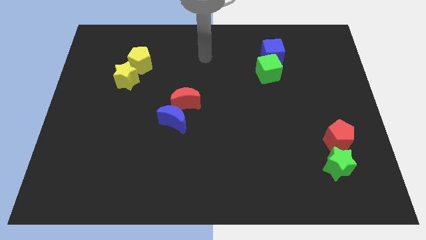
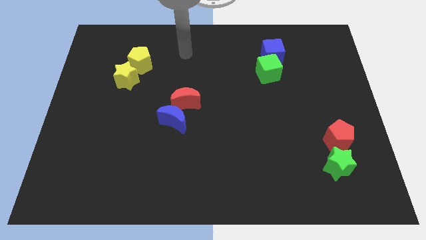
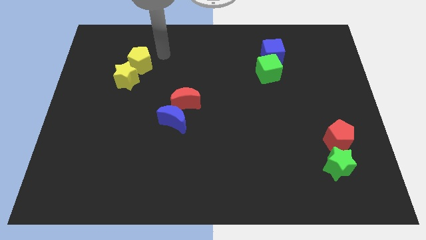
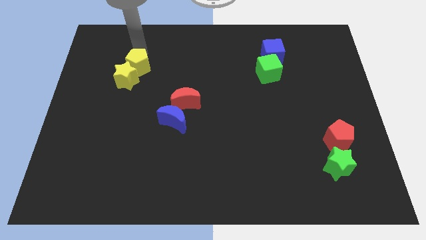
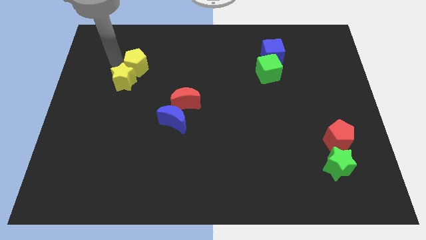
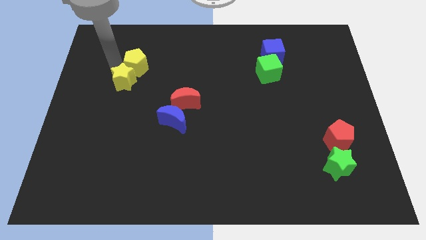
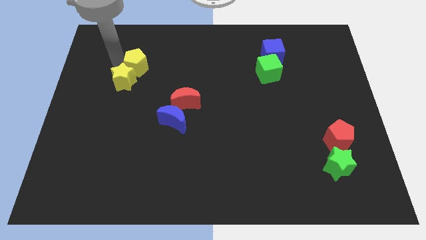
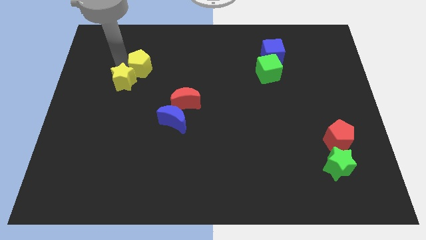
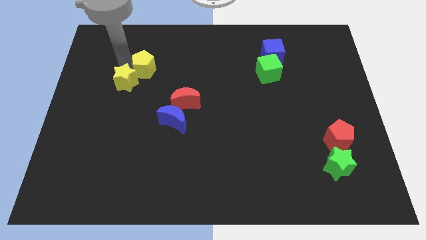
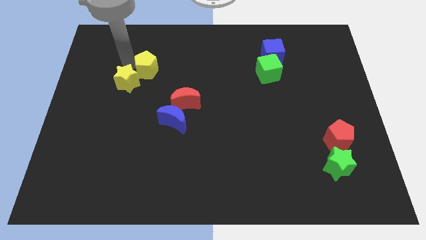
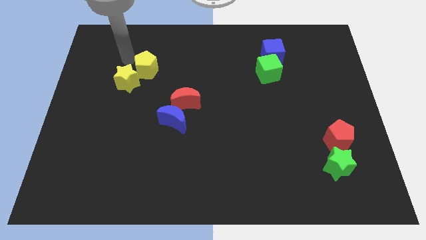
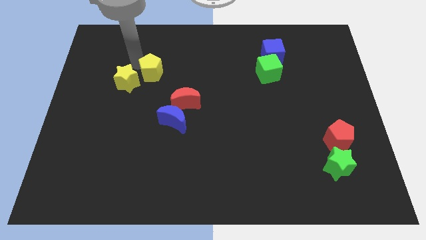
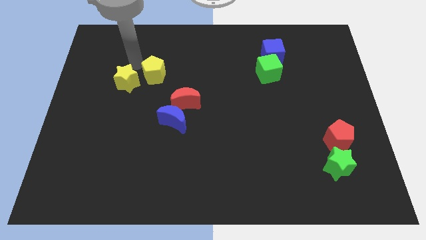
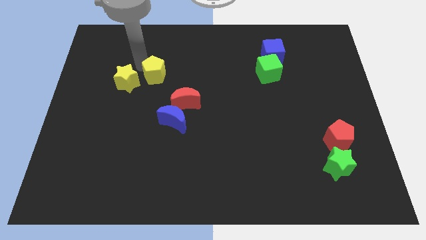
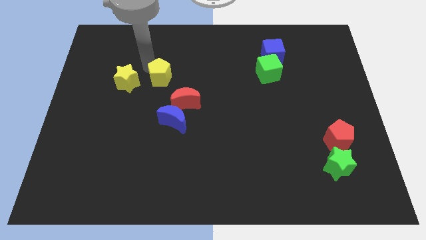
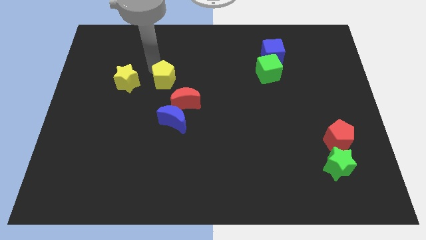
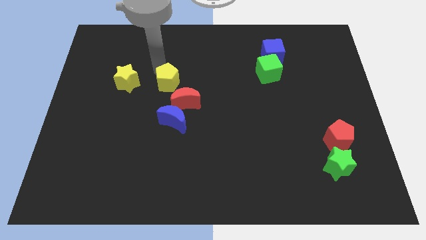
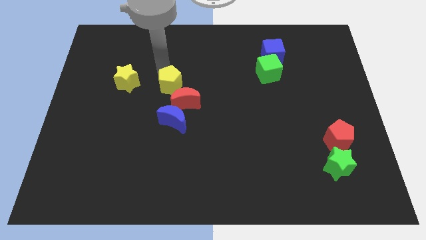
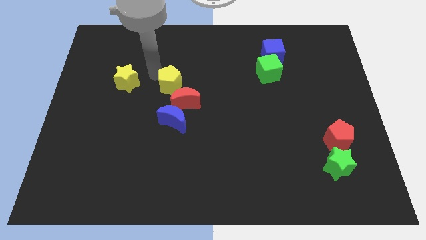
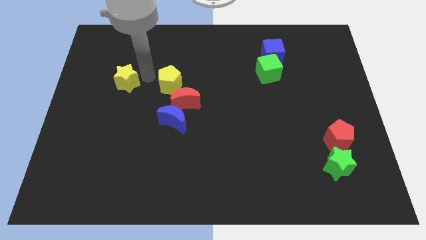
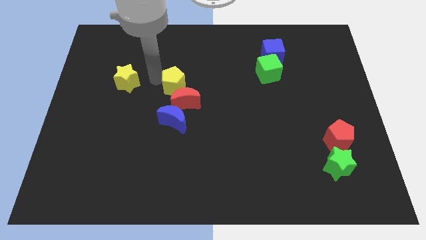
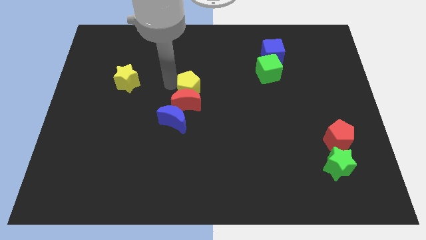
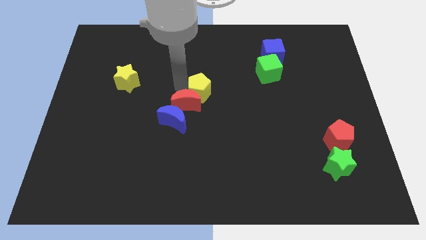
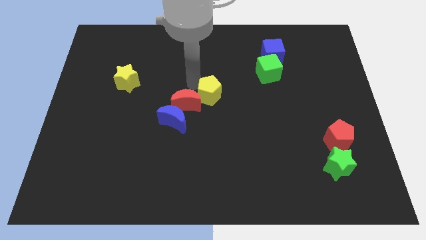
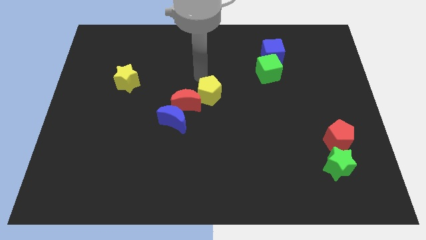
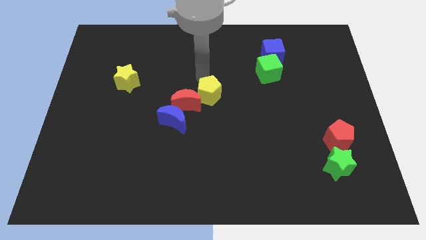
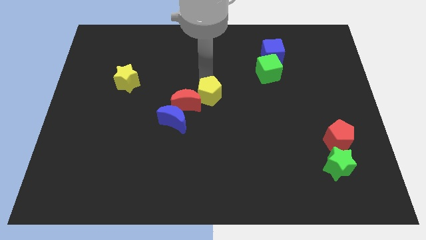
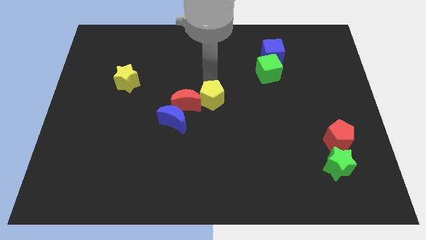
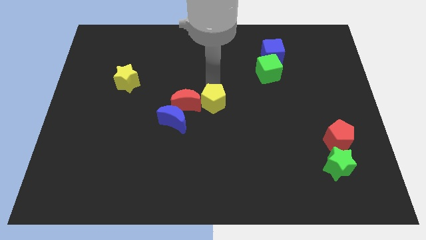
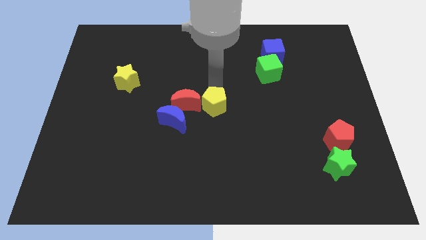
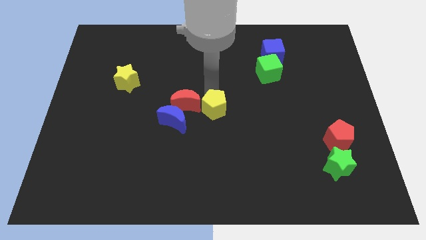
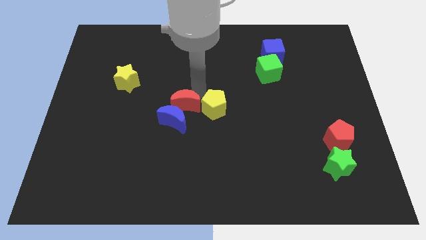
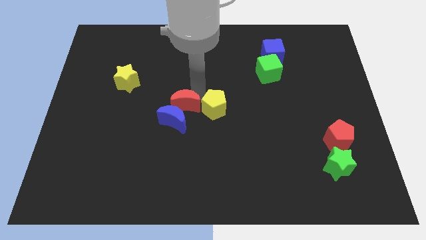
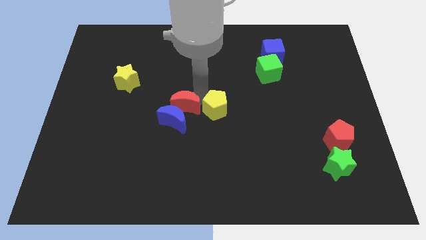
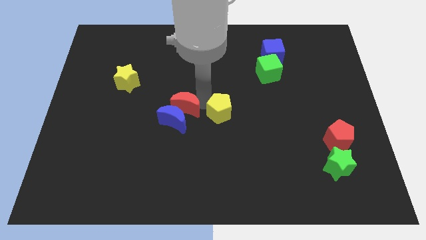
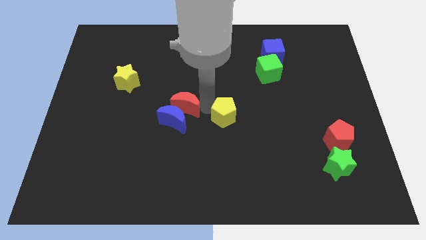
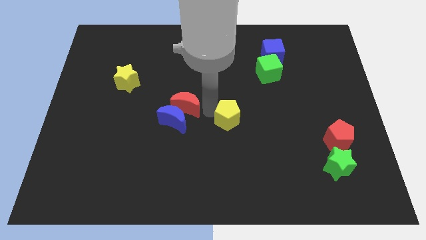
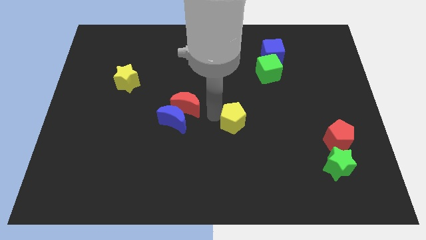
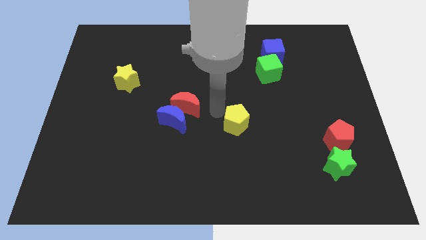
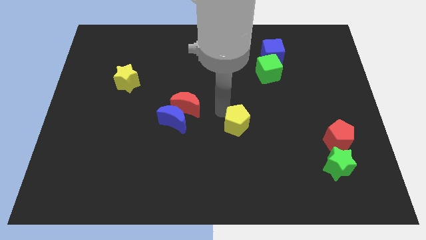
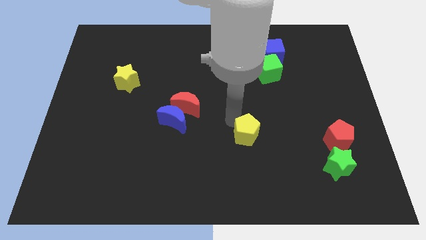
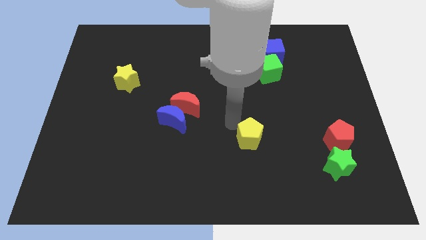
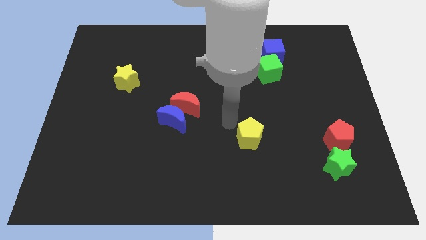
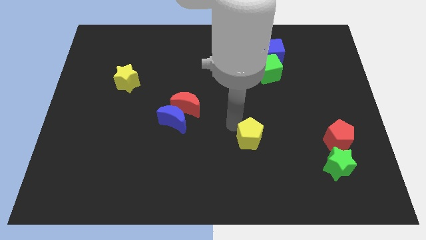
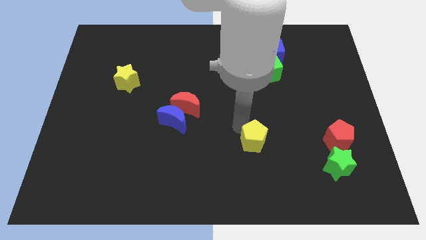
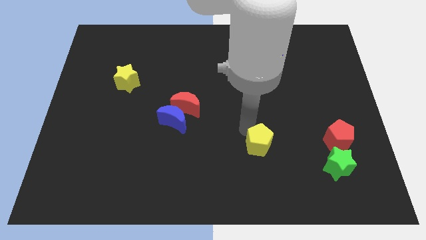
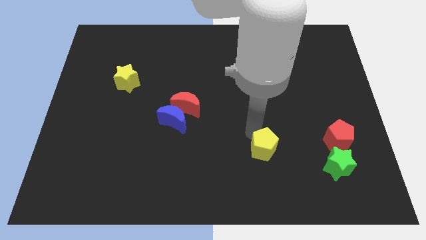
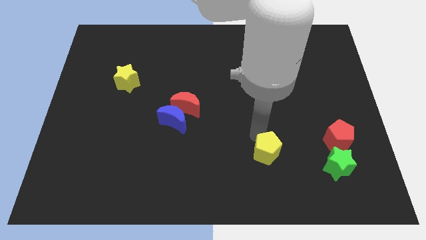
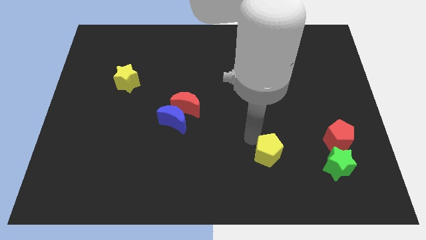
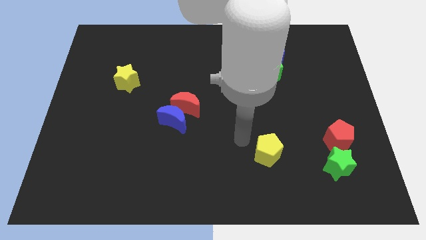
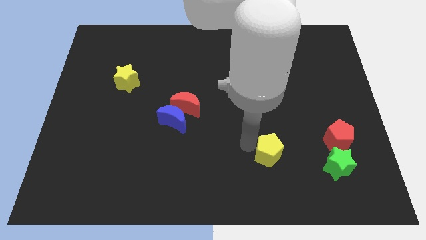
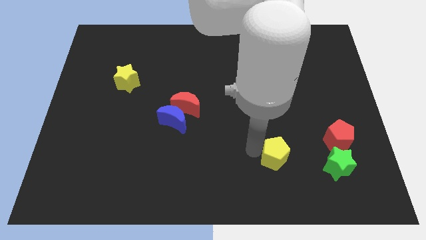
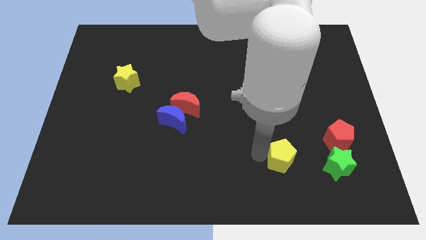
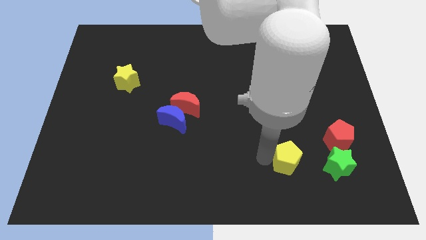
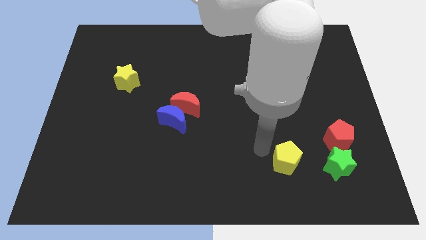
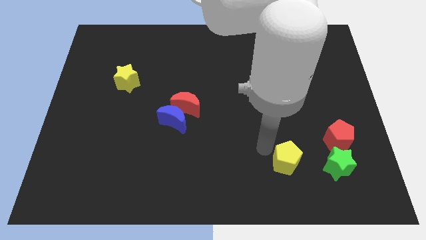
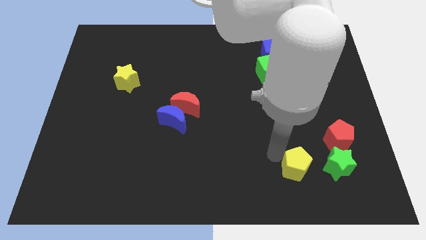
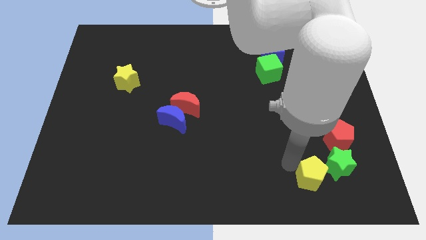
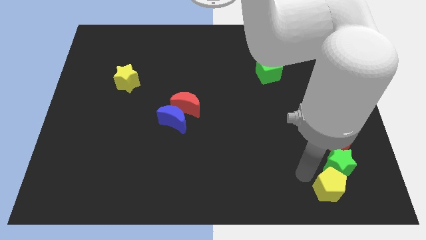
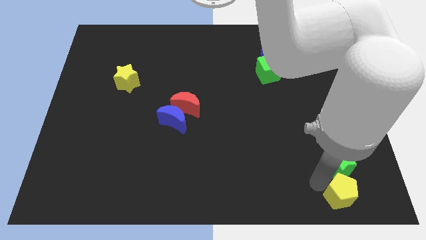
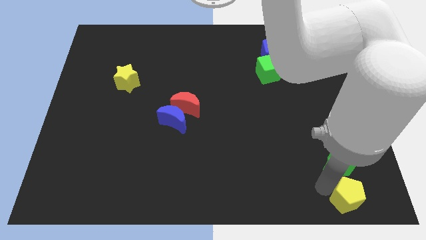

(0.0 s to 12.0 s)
push the yellow pentagon to the bottom right
